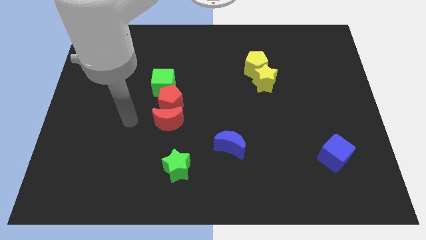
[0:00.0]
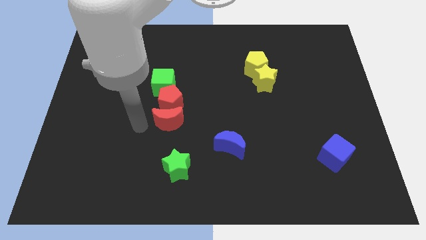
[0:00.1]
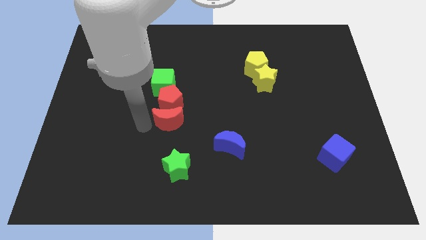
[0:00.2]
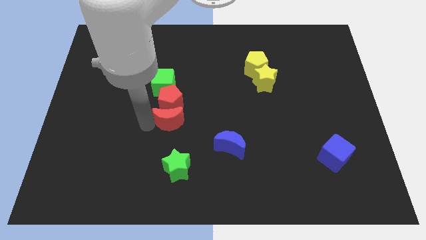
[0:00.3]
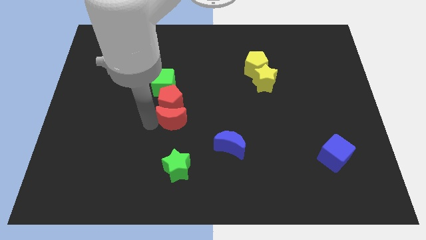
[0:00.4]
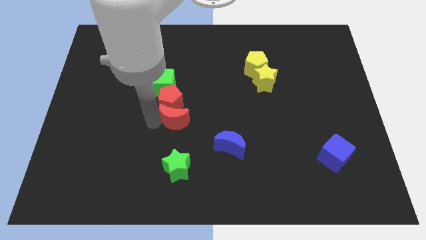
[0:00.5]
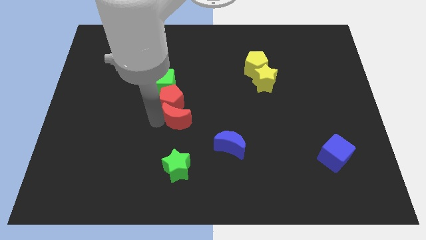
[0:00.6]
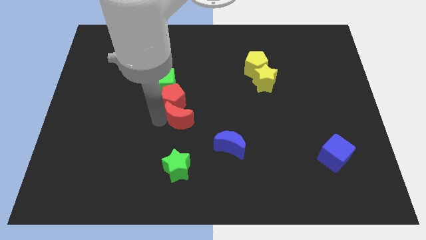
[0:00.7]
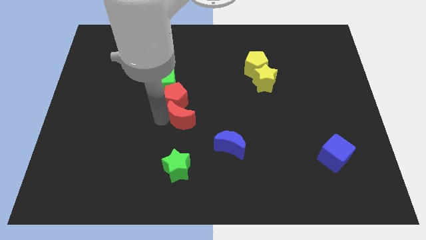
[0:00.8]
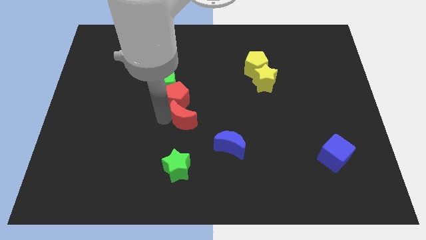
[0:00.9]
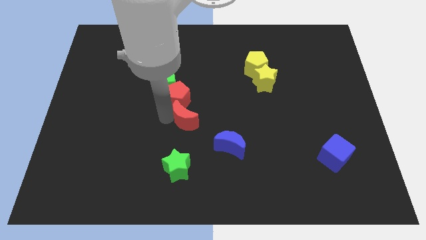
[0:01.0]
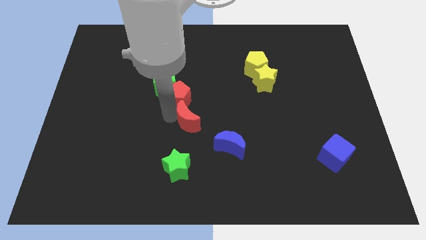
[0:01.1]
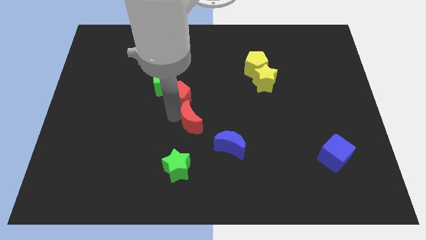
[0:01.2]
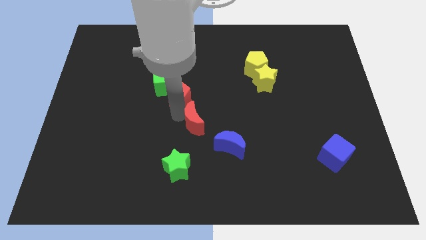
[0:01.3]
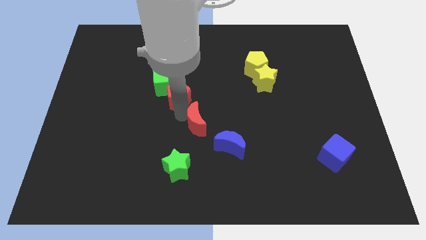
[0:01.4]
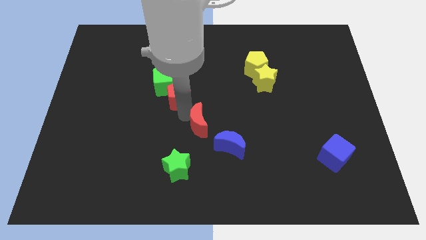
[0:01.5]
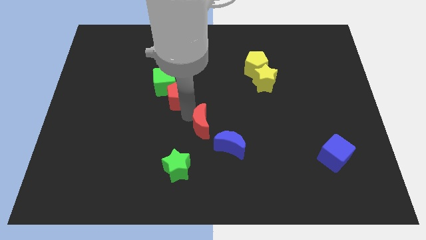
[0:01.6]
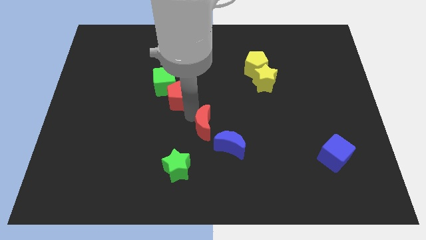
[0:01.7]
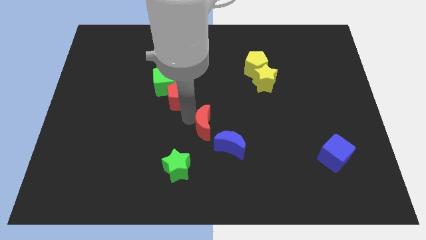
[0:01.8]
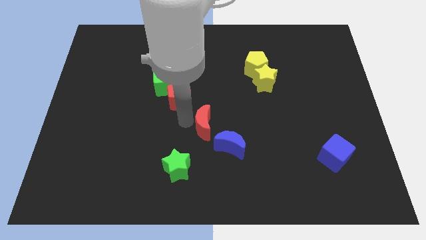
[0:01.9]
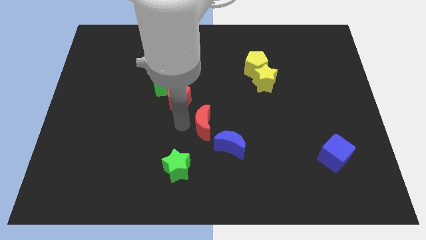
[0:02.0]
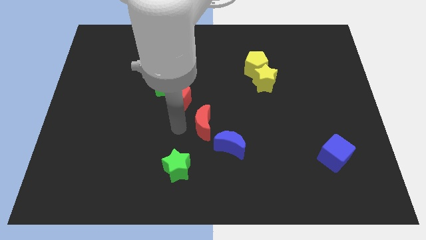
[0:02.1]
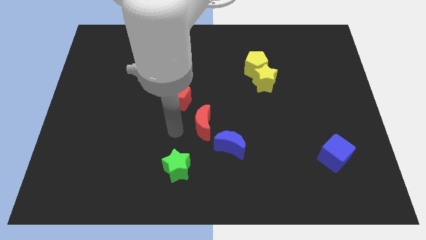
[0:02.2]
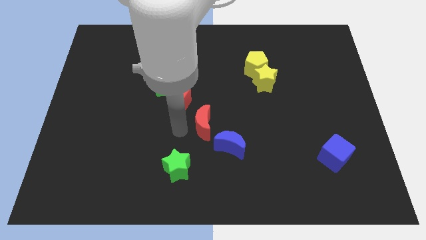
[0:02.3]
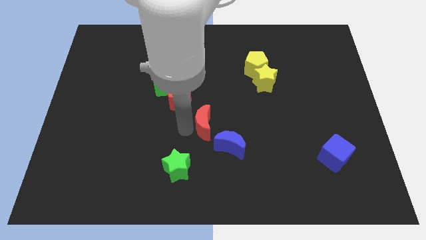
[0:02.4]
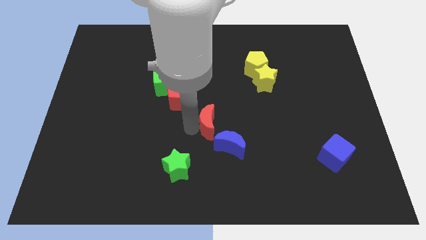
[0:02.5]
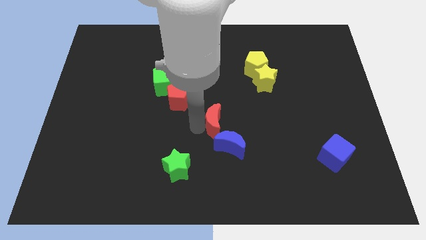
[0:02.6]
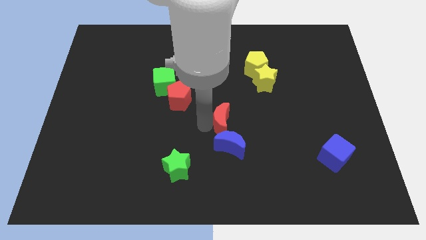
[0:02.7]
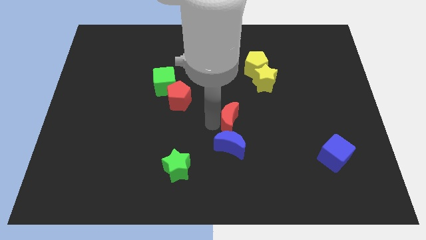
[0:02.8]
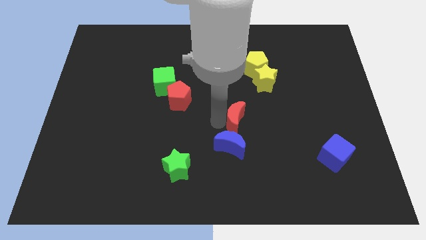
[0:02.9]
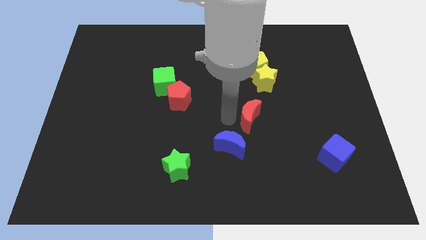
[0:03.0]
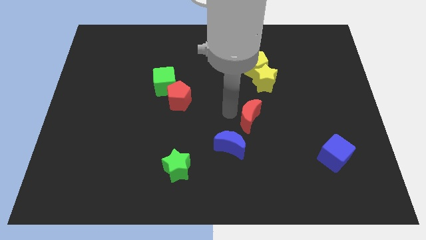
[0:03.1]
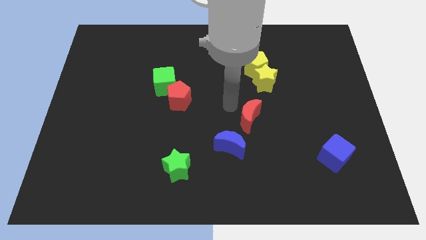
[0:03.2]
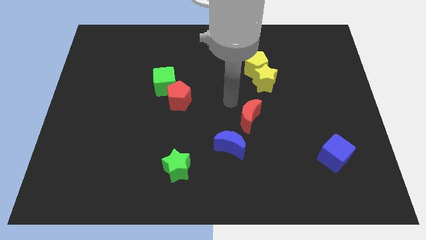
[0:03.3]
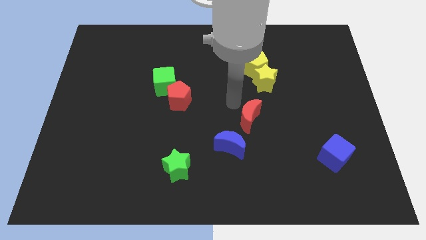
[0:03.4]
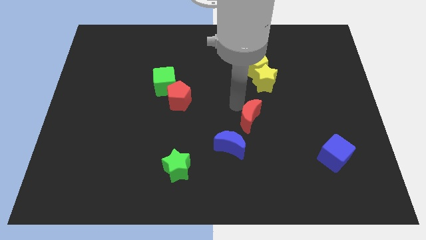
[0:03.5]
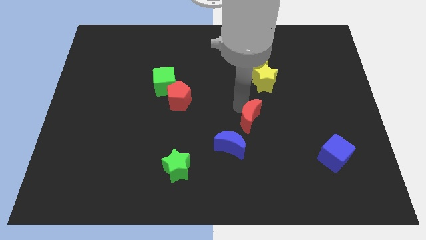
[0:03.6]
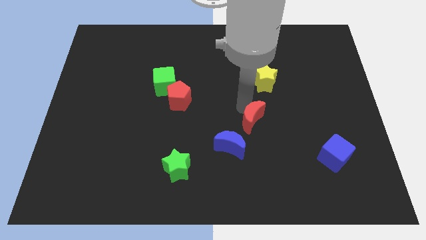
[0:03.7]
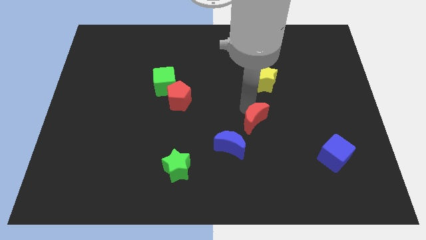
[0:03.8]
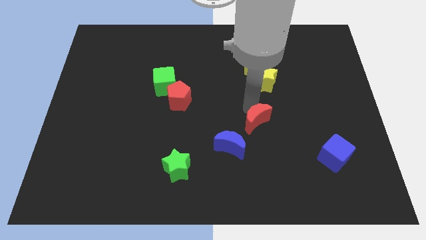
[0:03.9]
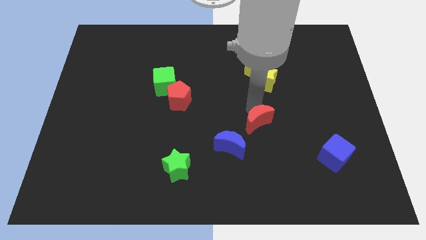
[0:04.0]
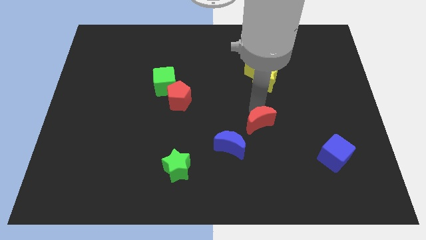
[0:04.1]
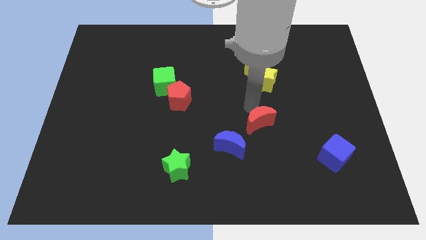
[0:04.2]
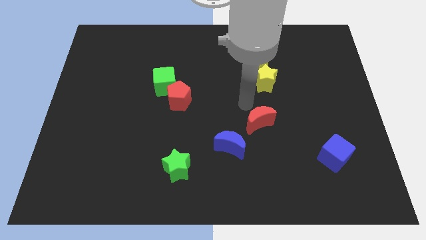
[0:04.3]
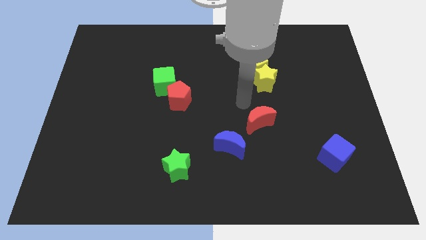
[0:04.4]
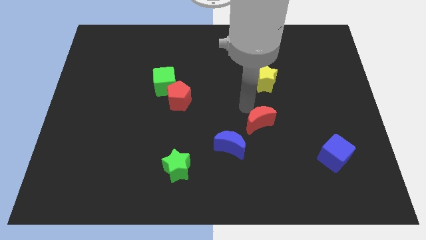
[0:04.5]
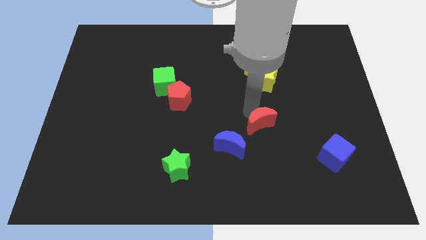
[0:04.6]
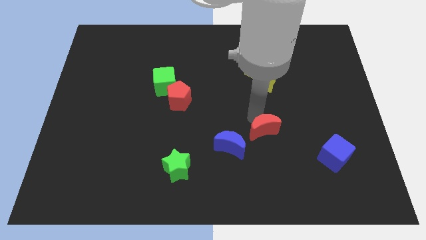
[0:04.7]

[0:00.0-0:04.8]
put the red moon just right of the blue moon

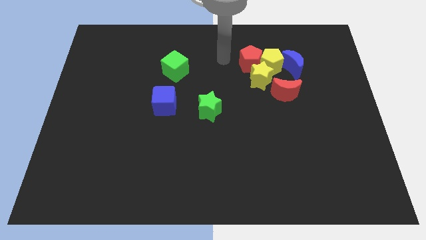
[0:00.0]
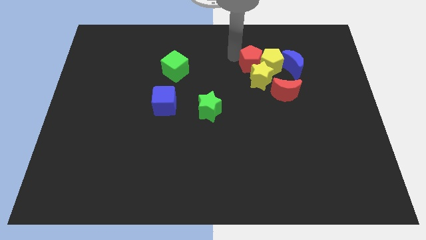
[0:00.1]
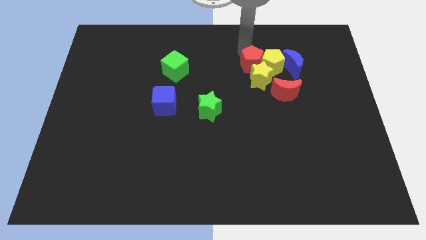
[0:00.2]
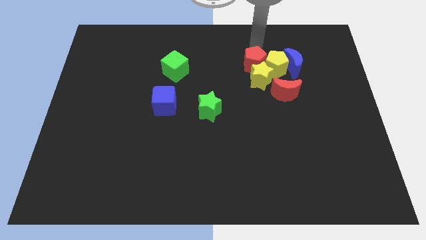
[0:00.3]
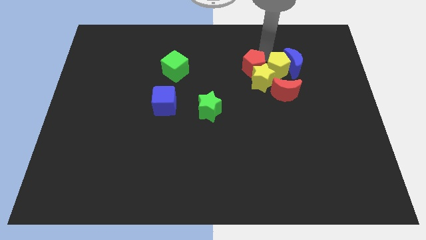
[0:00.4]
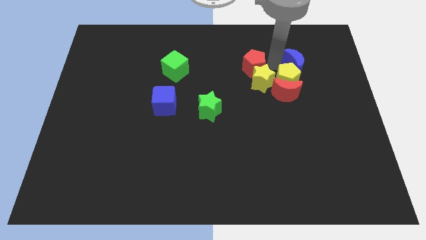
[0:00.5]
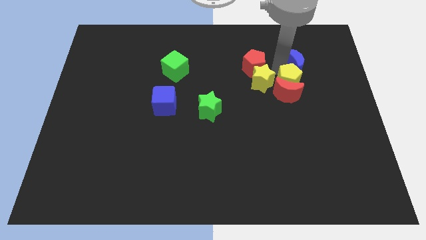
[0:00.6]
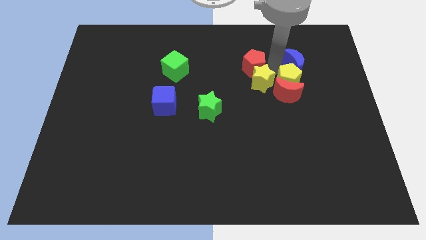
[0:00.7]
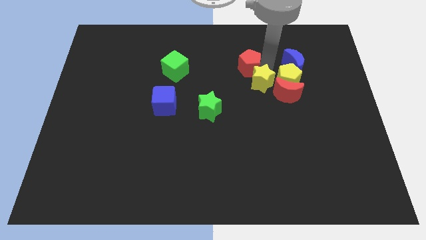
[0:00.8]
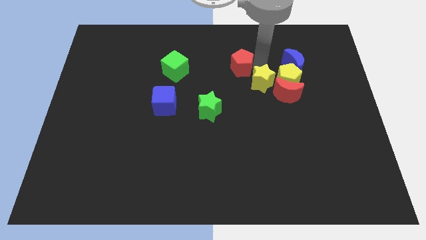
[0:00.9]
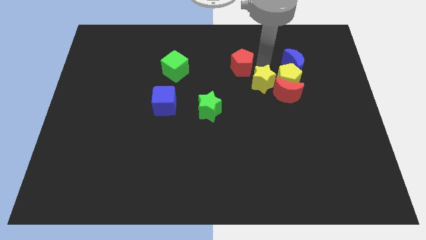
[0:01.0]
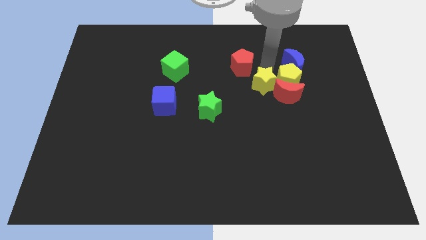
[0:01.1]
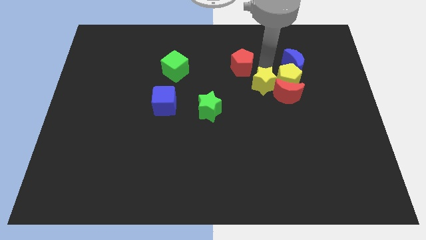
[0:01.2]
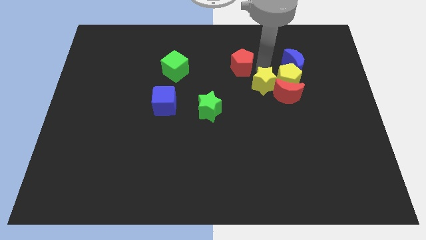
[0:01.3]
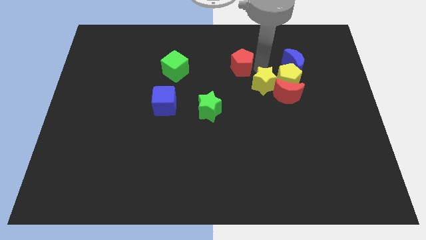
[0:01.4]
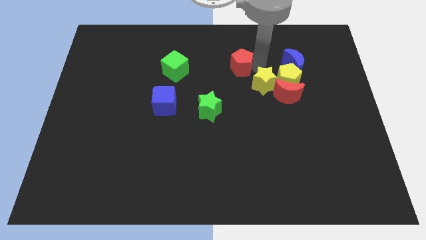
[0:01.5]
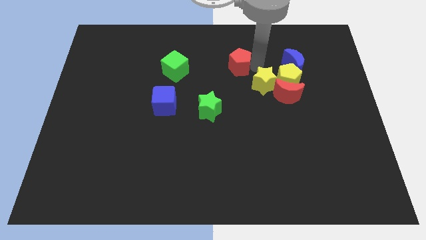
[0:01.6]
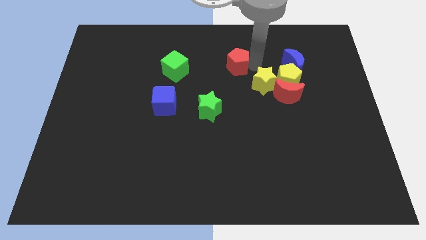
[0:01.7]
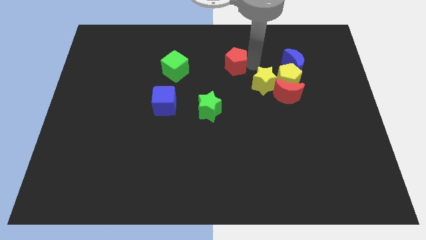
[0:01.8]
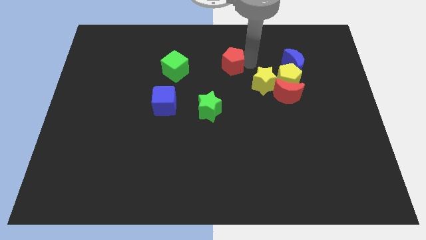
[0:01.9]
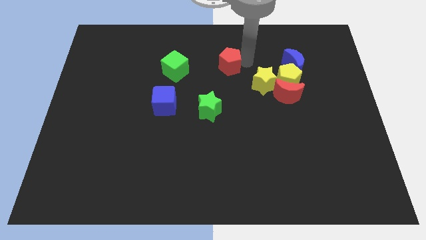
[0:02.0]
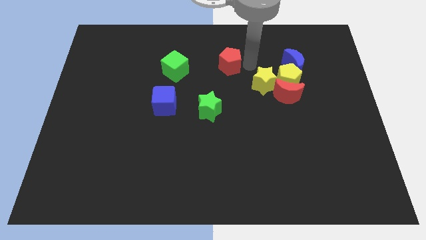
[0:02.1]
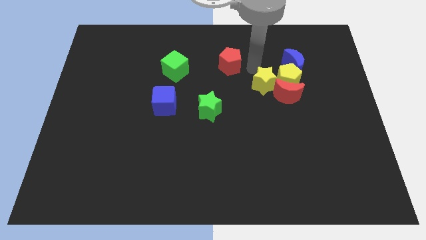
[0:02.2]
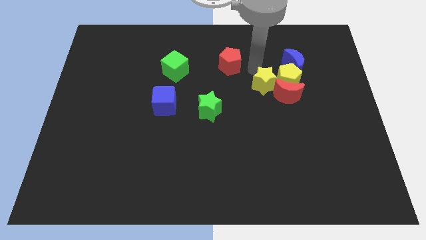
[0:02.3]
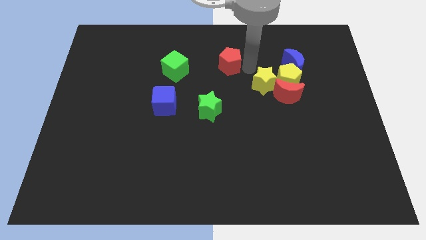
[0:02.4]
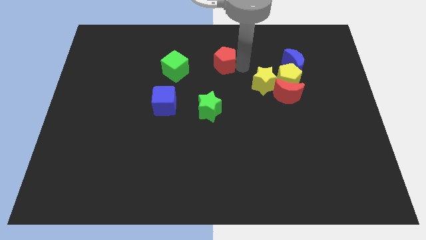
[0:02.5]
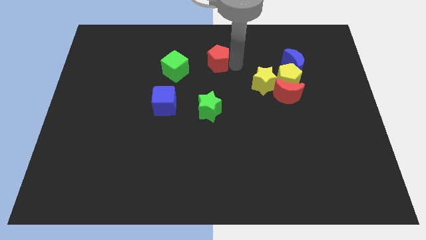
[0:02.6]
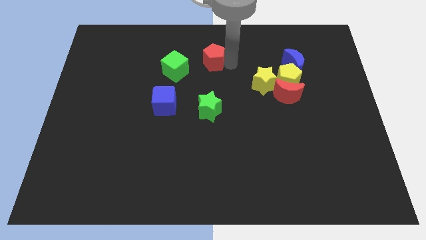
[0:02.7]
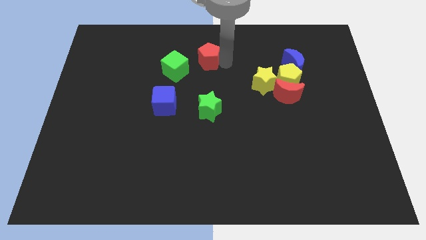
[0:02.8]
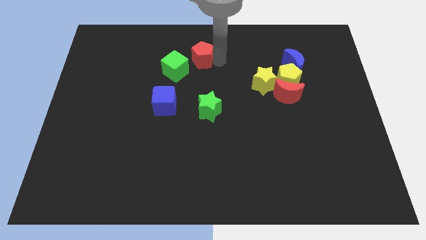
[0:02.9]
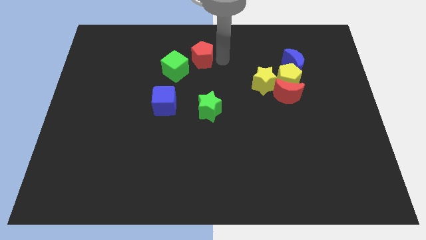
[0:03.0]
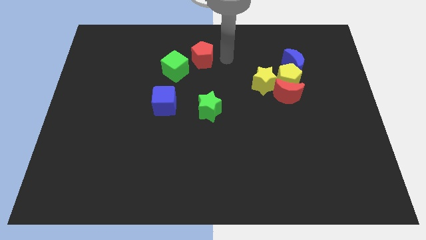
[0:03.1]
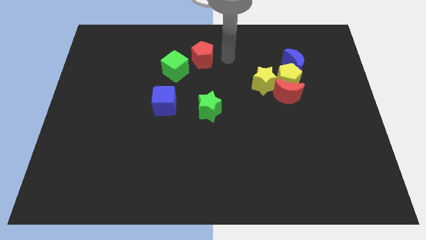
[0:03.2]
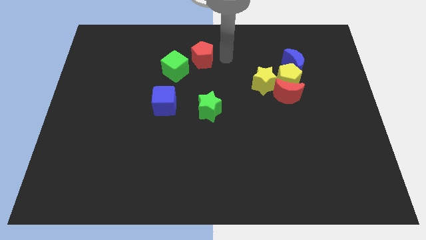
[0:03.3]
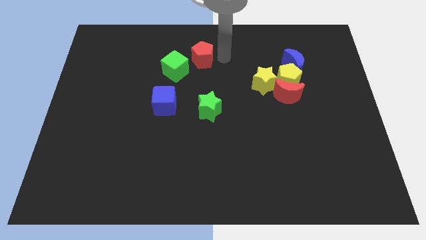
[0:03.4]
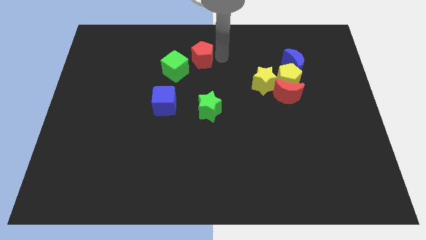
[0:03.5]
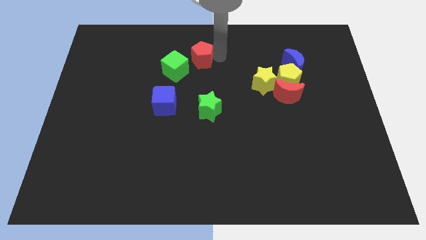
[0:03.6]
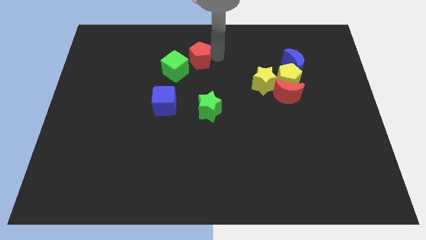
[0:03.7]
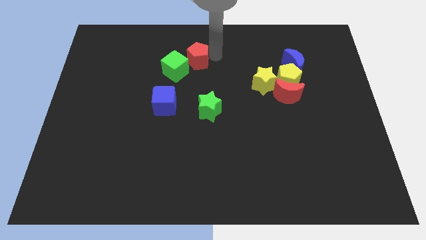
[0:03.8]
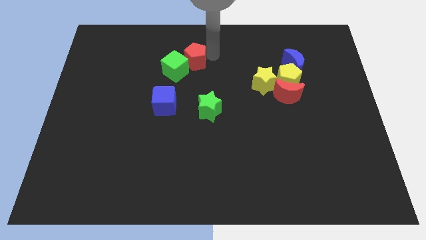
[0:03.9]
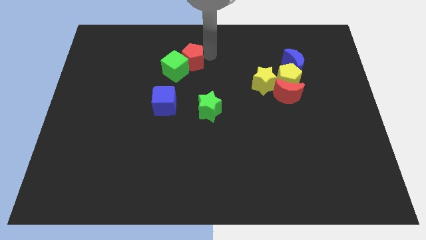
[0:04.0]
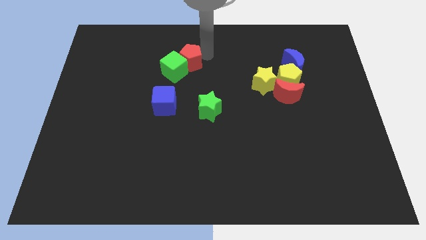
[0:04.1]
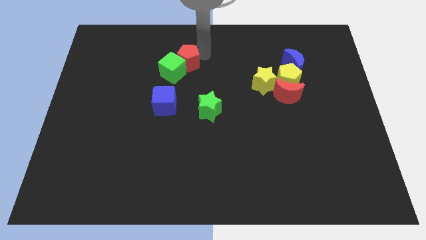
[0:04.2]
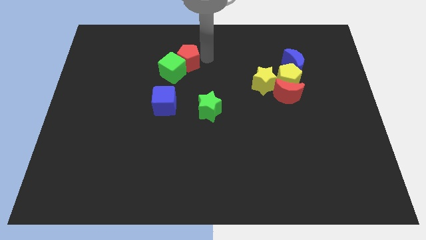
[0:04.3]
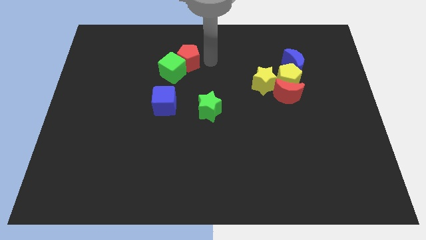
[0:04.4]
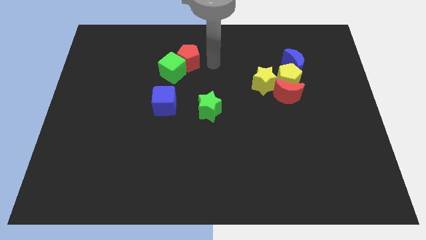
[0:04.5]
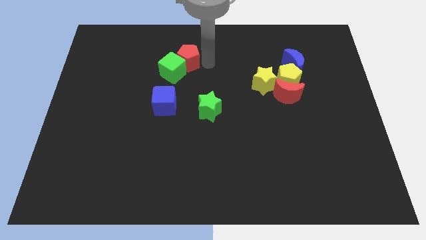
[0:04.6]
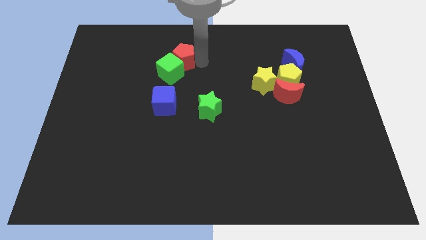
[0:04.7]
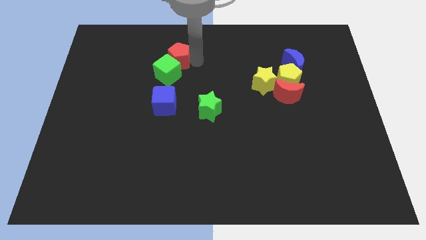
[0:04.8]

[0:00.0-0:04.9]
push the red pentagon to the top side of the blue cube
